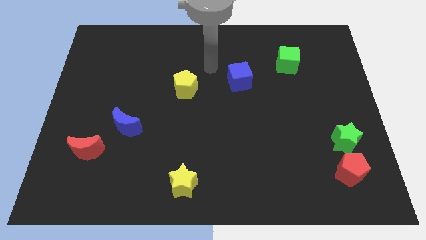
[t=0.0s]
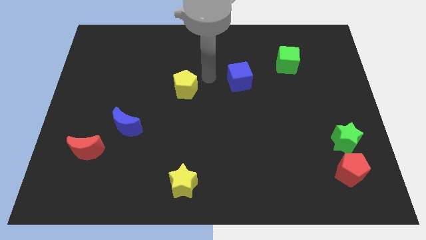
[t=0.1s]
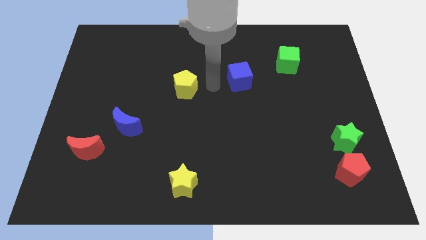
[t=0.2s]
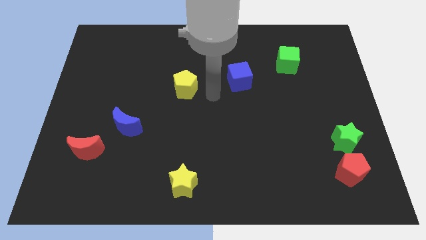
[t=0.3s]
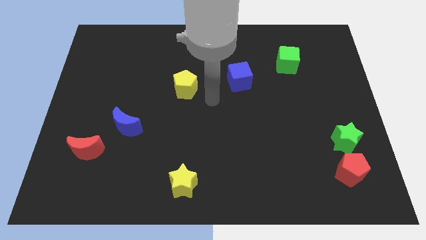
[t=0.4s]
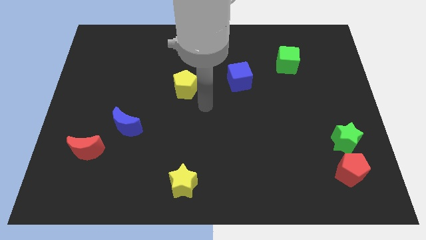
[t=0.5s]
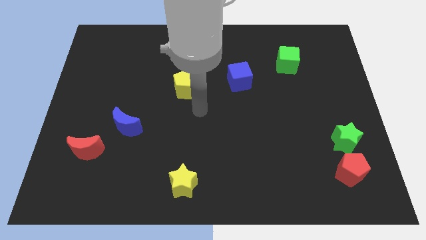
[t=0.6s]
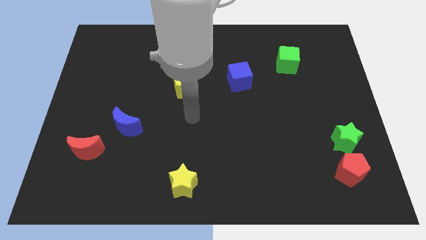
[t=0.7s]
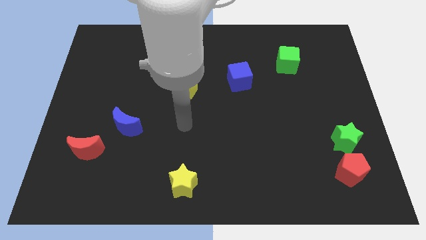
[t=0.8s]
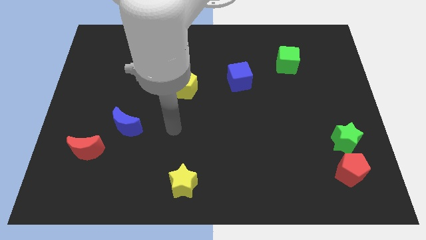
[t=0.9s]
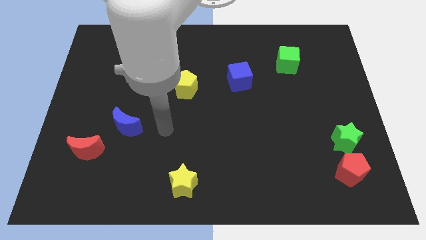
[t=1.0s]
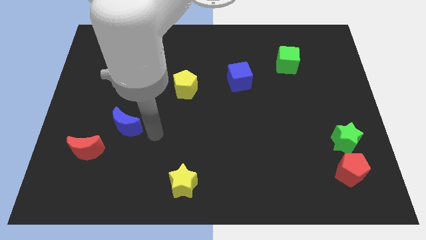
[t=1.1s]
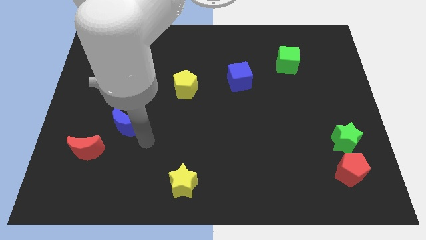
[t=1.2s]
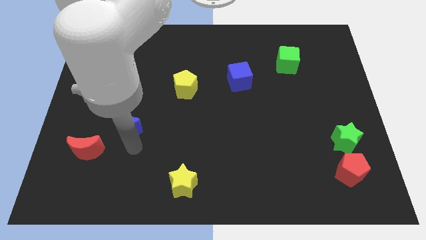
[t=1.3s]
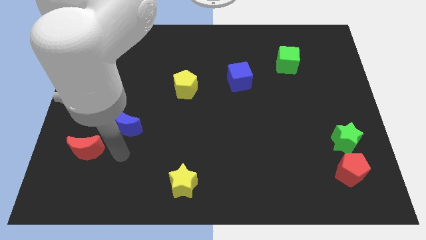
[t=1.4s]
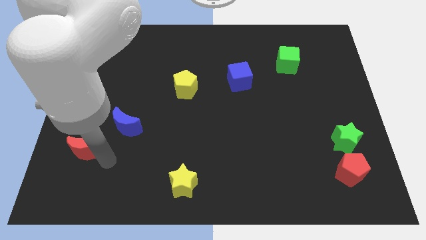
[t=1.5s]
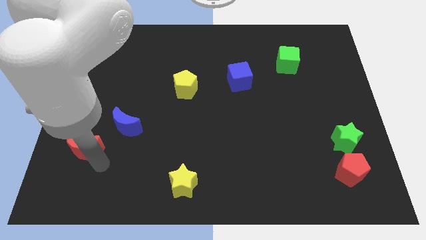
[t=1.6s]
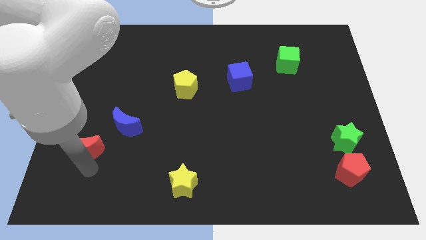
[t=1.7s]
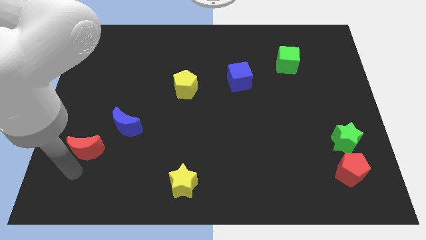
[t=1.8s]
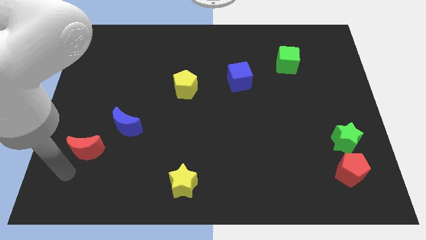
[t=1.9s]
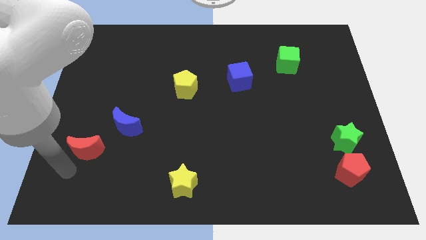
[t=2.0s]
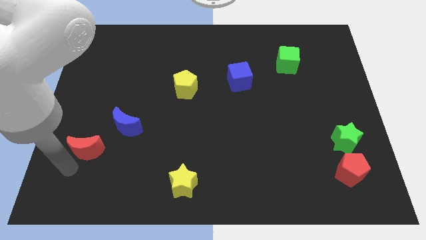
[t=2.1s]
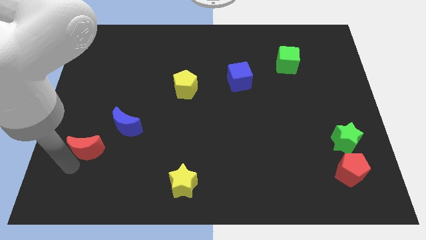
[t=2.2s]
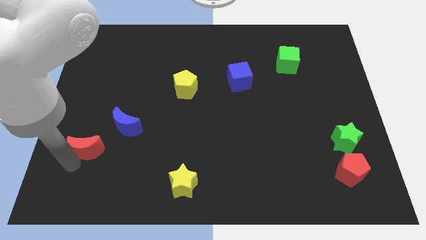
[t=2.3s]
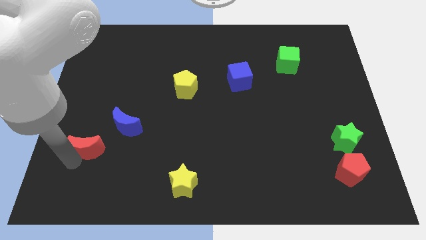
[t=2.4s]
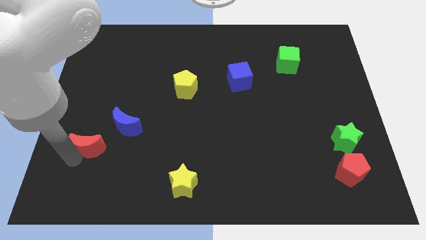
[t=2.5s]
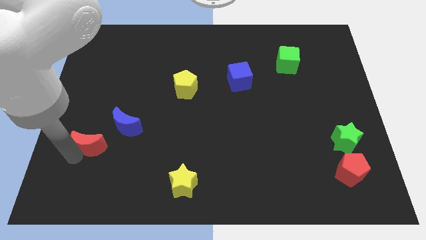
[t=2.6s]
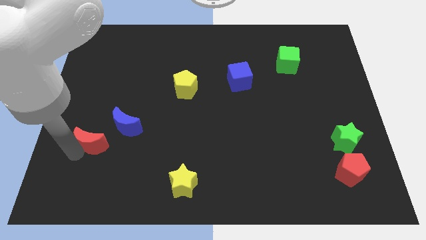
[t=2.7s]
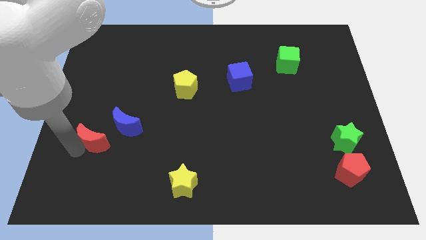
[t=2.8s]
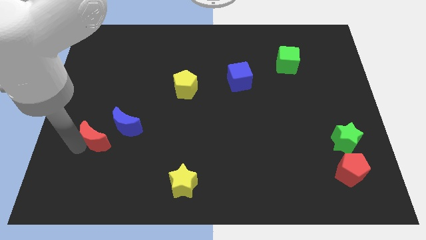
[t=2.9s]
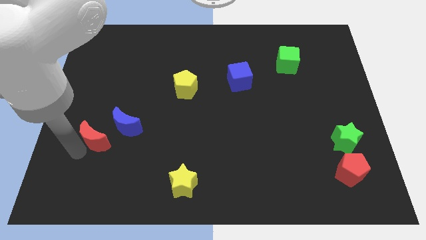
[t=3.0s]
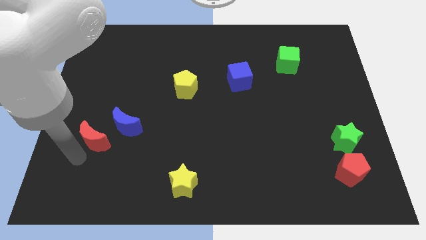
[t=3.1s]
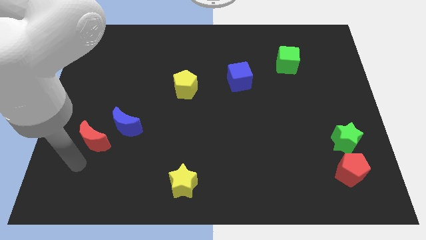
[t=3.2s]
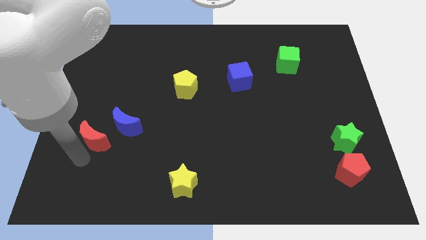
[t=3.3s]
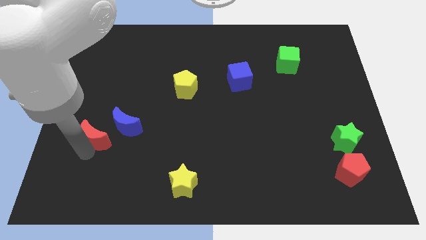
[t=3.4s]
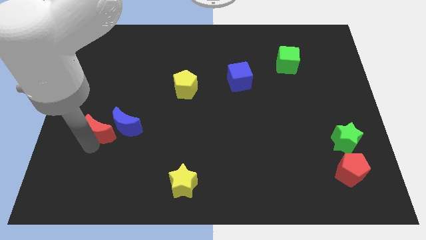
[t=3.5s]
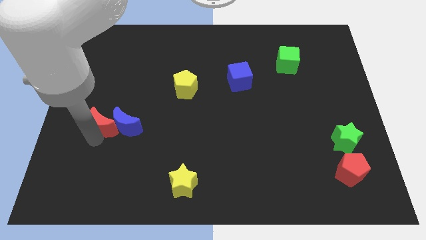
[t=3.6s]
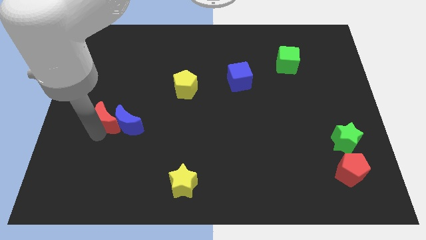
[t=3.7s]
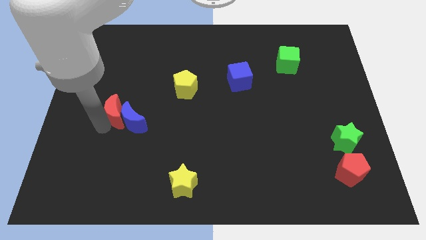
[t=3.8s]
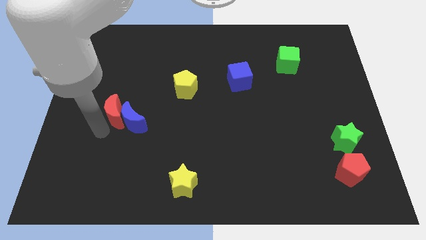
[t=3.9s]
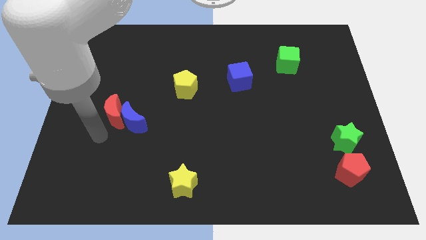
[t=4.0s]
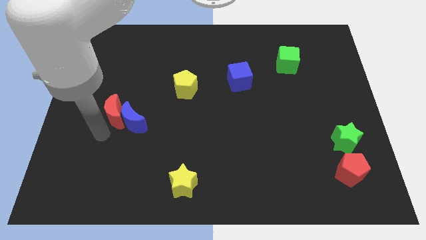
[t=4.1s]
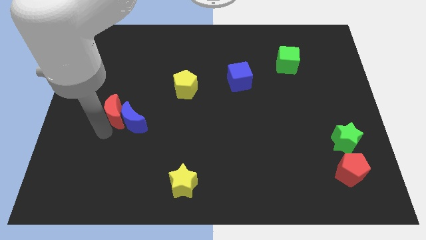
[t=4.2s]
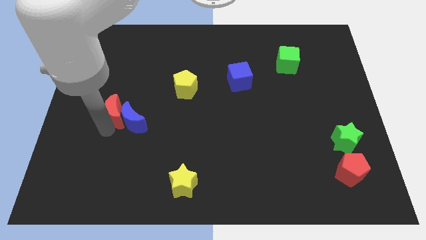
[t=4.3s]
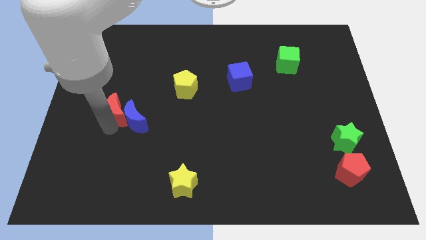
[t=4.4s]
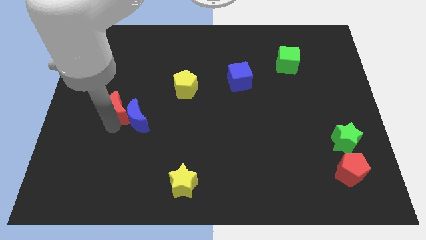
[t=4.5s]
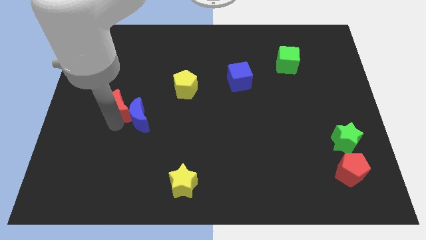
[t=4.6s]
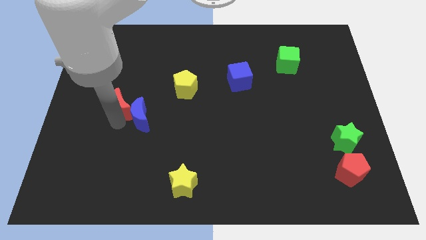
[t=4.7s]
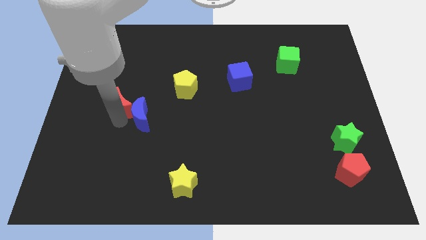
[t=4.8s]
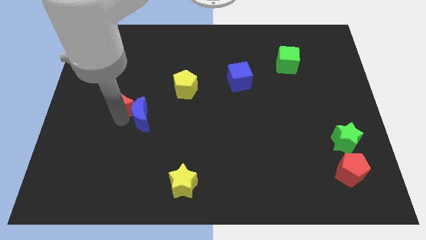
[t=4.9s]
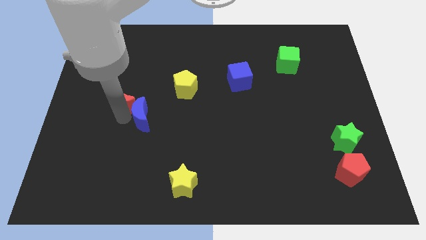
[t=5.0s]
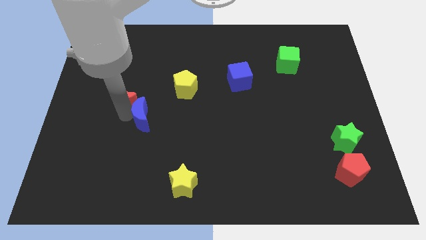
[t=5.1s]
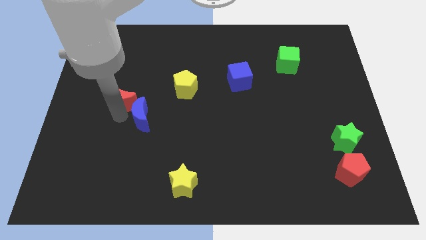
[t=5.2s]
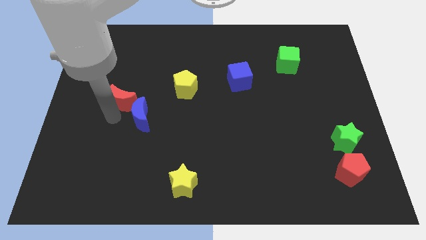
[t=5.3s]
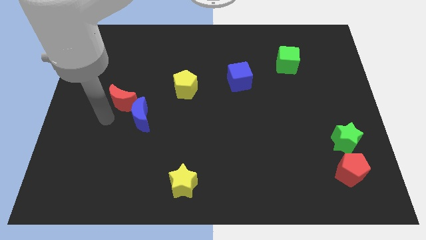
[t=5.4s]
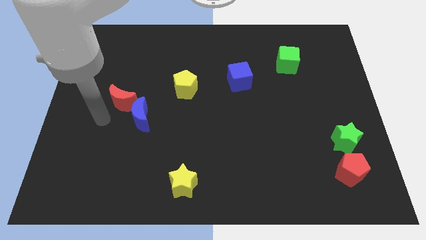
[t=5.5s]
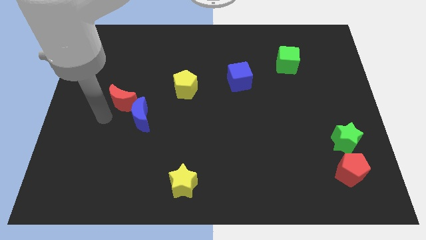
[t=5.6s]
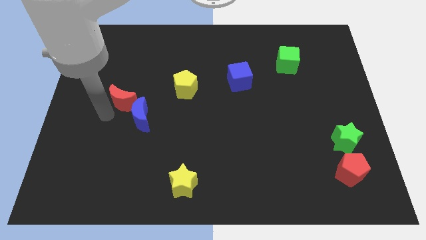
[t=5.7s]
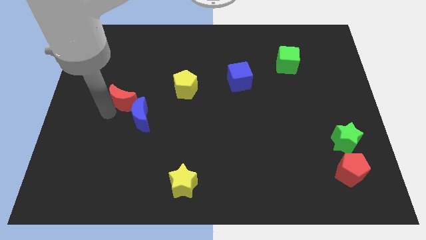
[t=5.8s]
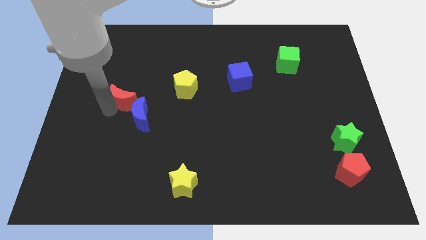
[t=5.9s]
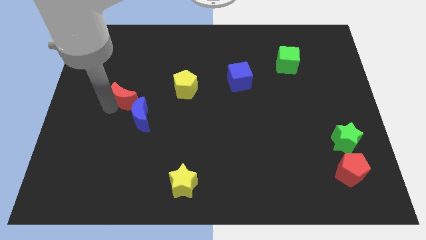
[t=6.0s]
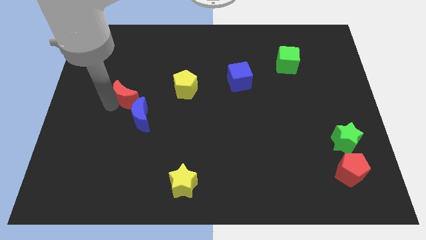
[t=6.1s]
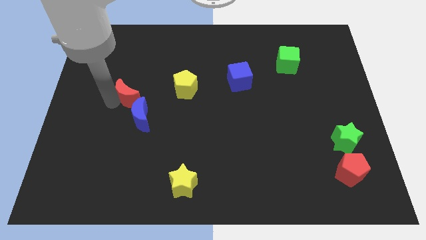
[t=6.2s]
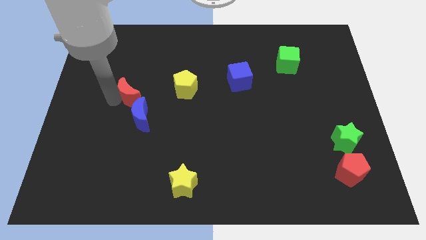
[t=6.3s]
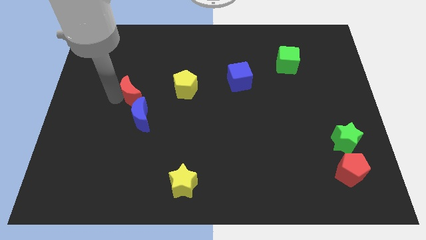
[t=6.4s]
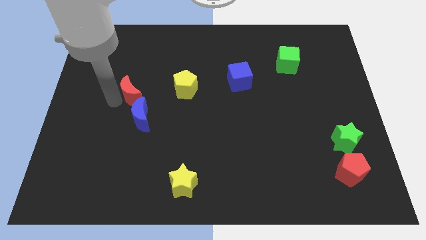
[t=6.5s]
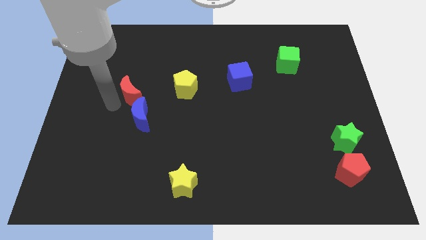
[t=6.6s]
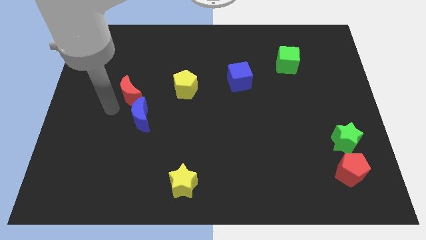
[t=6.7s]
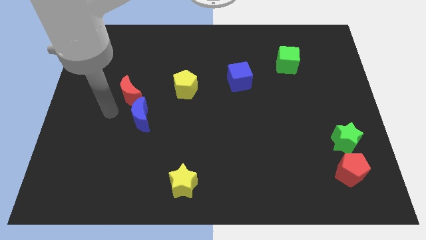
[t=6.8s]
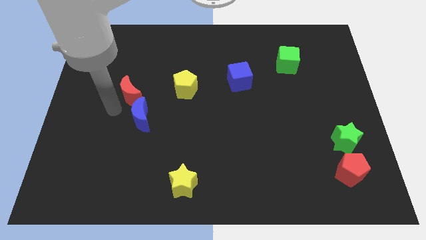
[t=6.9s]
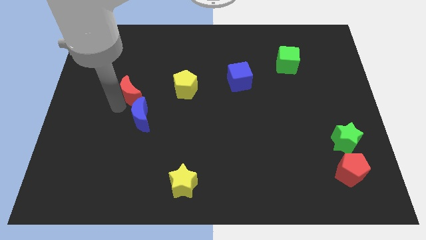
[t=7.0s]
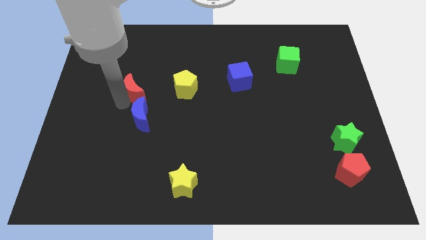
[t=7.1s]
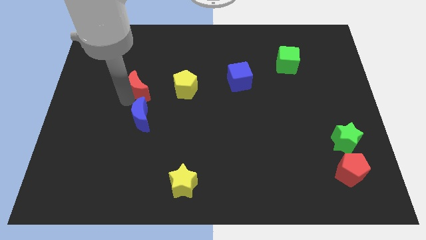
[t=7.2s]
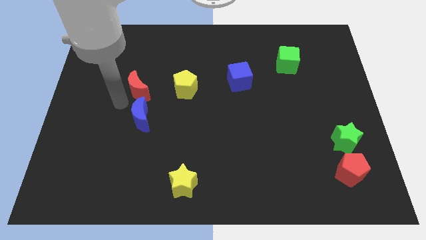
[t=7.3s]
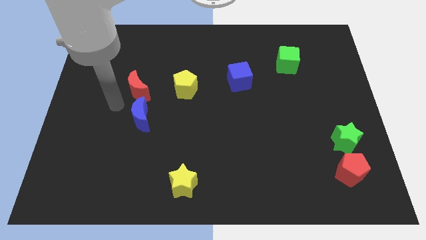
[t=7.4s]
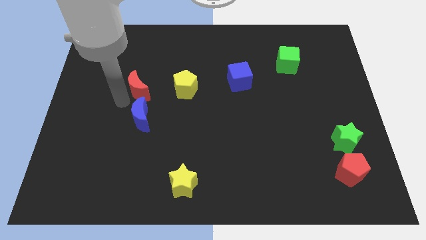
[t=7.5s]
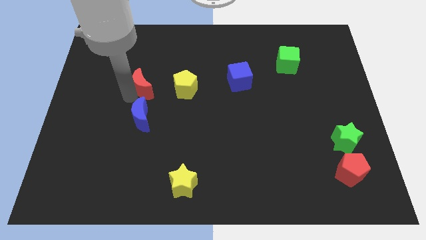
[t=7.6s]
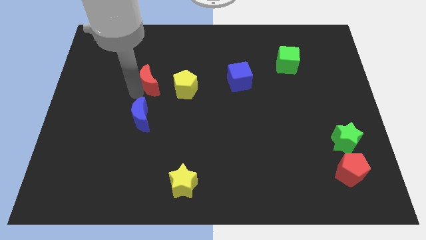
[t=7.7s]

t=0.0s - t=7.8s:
slide the red moon up and to the right diagonally

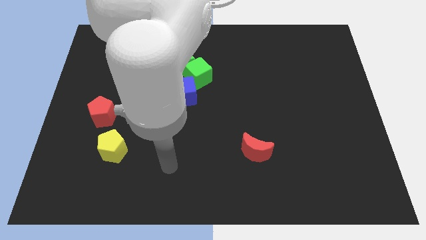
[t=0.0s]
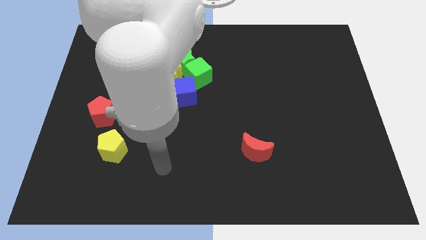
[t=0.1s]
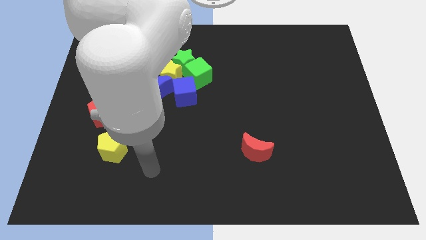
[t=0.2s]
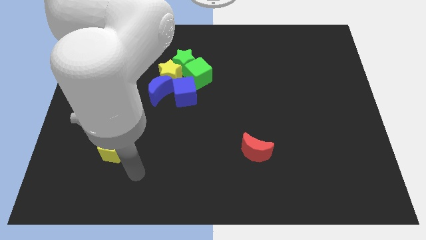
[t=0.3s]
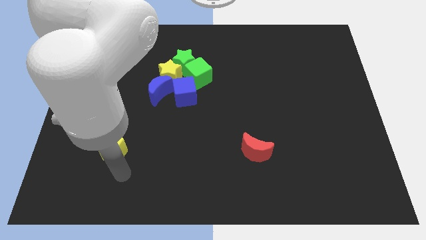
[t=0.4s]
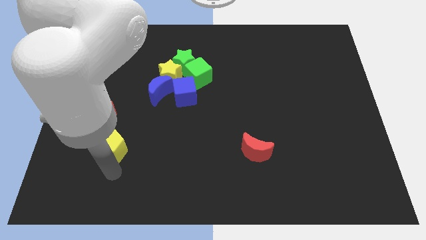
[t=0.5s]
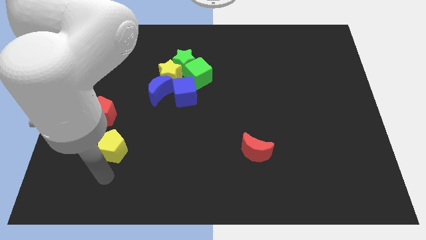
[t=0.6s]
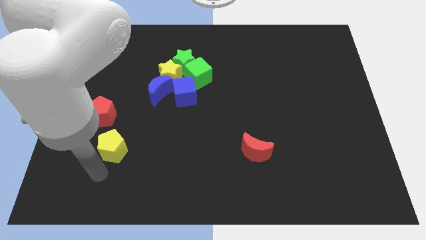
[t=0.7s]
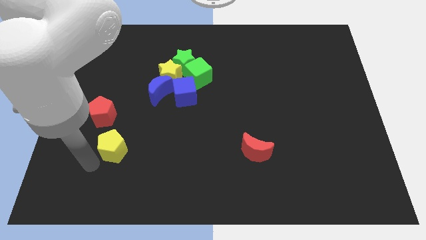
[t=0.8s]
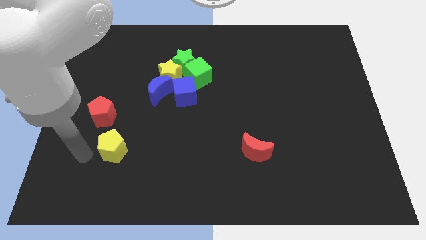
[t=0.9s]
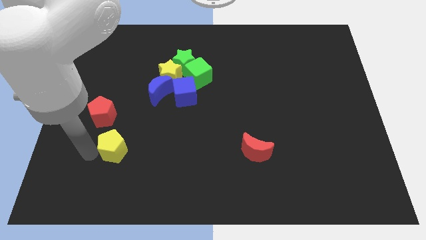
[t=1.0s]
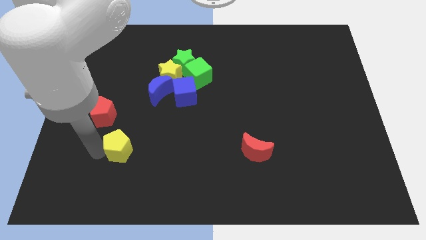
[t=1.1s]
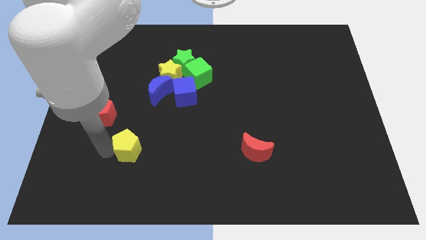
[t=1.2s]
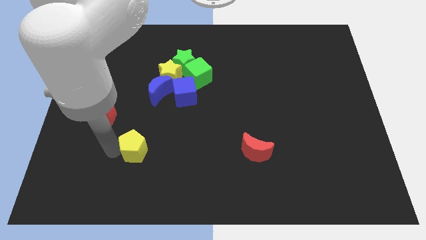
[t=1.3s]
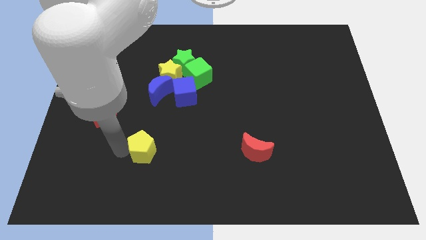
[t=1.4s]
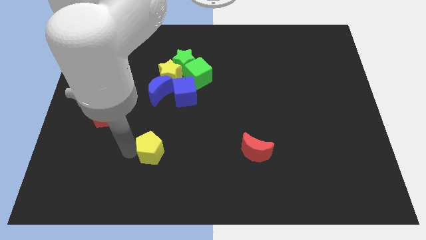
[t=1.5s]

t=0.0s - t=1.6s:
move the yellow pentagon a little right
